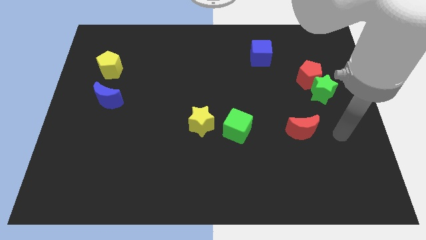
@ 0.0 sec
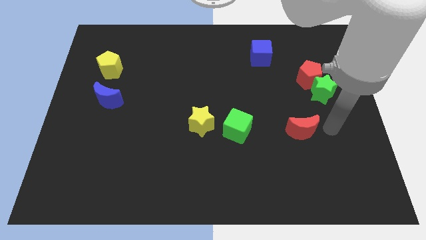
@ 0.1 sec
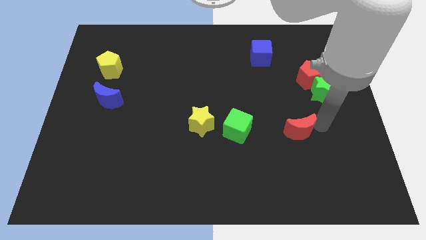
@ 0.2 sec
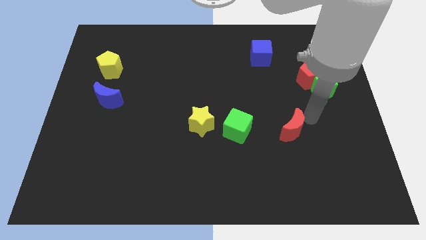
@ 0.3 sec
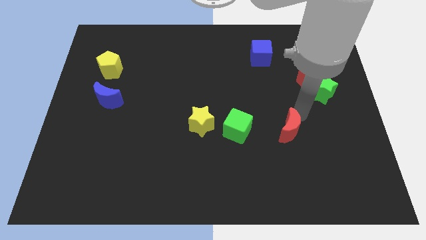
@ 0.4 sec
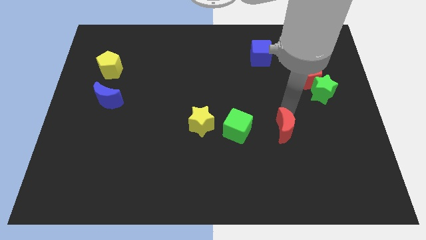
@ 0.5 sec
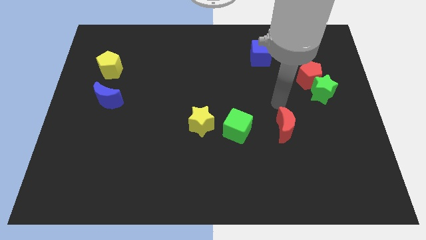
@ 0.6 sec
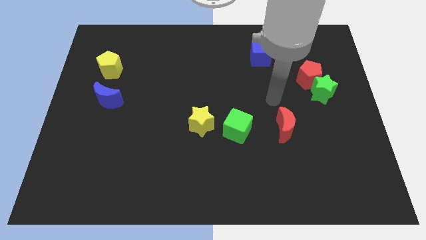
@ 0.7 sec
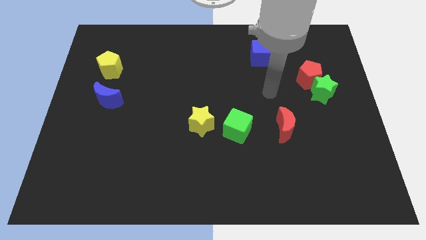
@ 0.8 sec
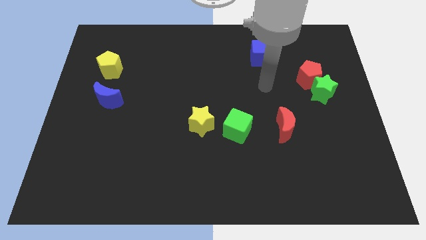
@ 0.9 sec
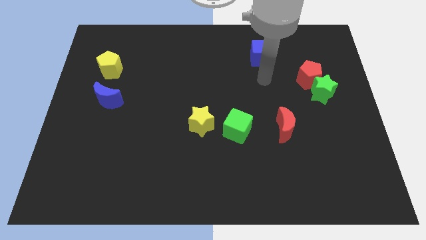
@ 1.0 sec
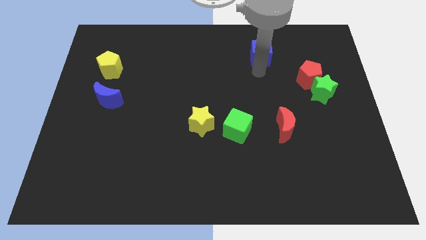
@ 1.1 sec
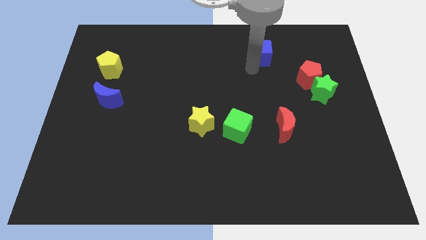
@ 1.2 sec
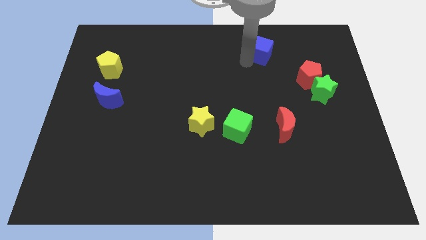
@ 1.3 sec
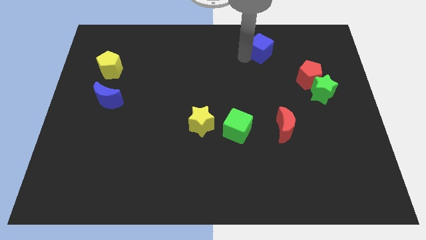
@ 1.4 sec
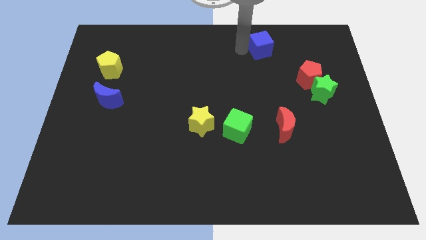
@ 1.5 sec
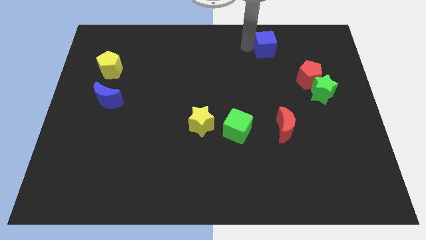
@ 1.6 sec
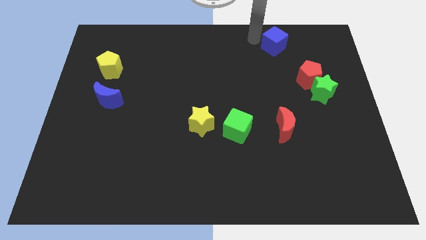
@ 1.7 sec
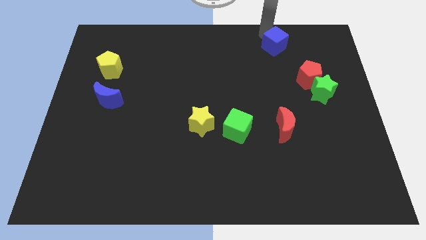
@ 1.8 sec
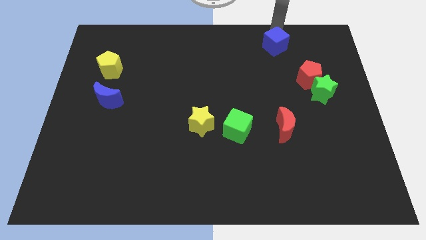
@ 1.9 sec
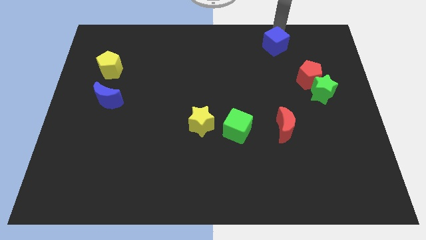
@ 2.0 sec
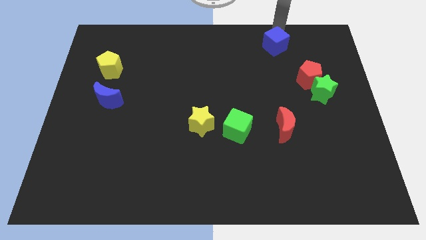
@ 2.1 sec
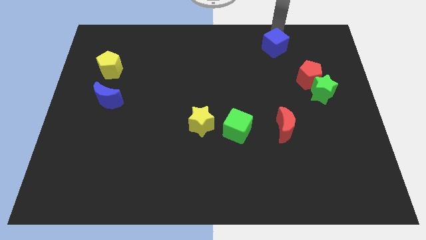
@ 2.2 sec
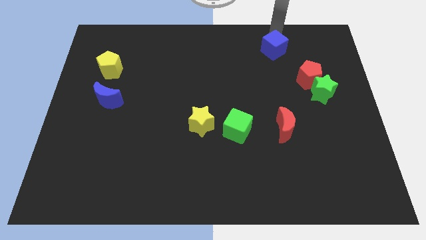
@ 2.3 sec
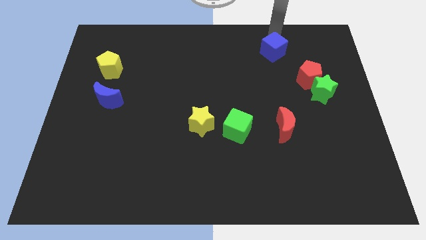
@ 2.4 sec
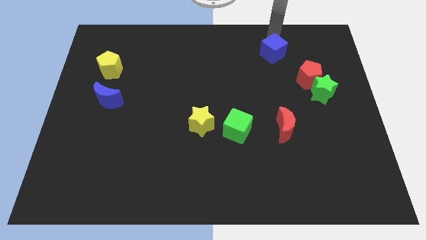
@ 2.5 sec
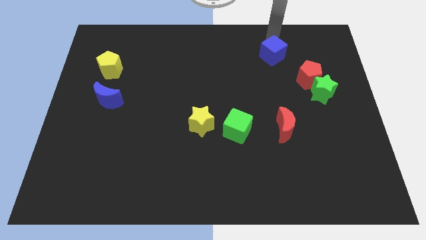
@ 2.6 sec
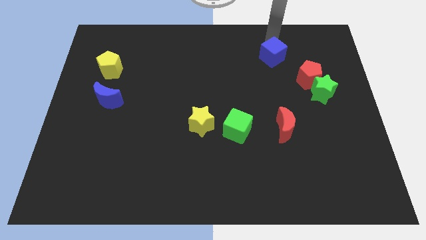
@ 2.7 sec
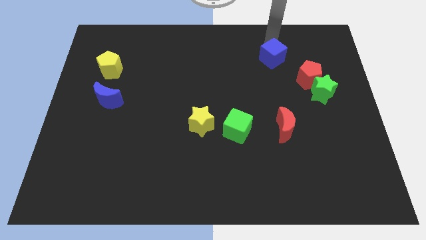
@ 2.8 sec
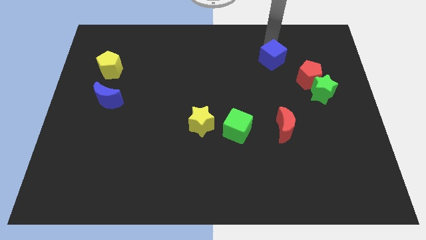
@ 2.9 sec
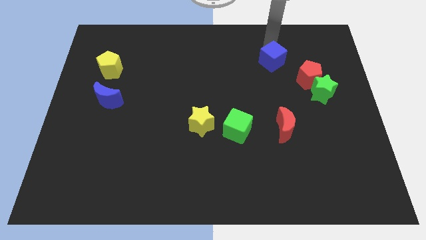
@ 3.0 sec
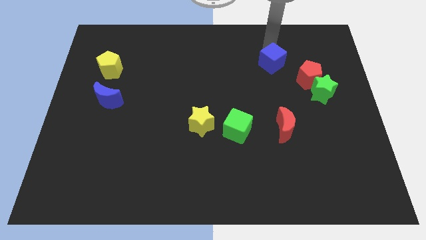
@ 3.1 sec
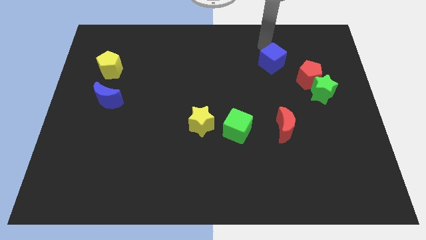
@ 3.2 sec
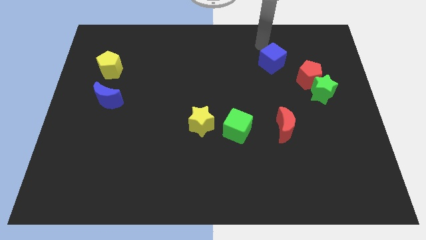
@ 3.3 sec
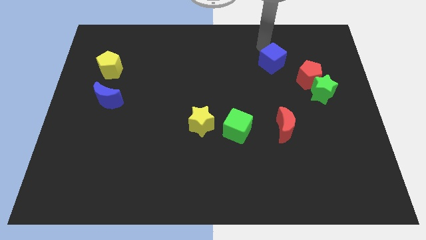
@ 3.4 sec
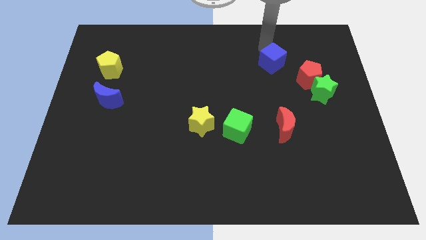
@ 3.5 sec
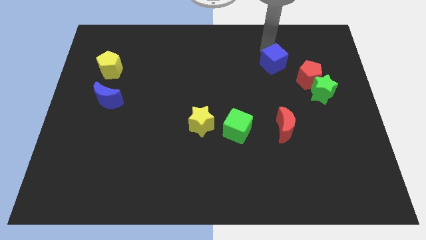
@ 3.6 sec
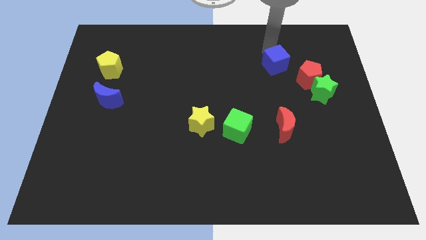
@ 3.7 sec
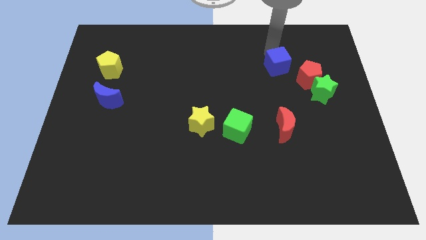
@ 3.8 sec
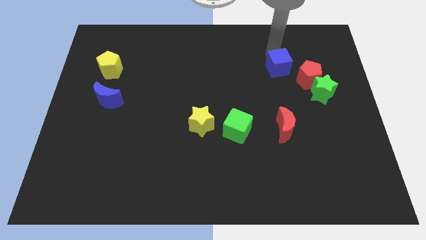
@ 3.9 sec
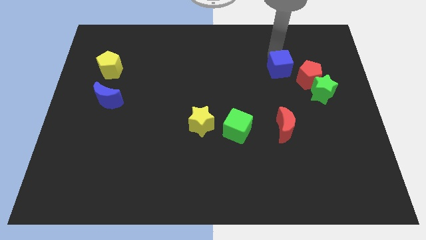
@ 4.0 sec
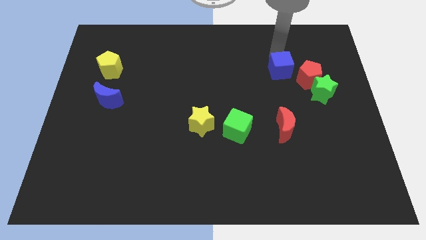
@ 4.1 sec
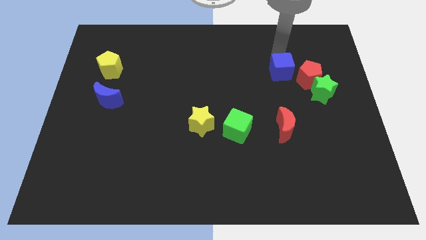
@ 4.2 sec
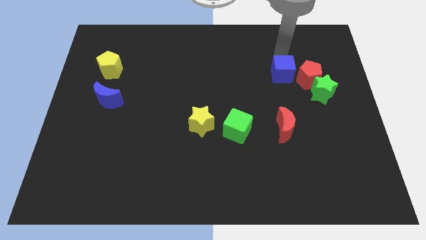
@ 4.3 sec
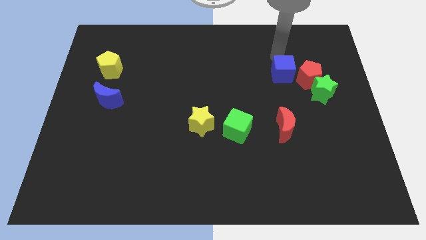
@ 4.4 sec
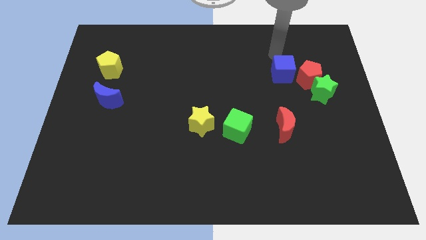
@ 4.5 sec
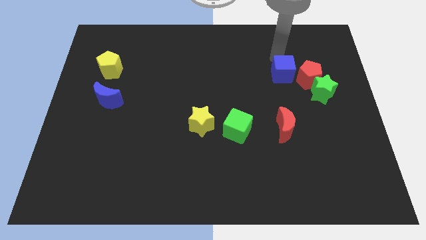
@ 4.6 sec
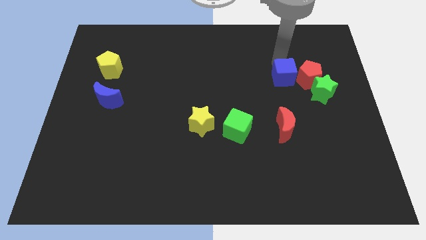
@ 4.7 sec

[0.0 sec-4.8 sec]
push the blue cube diagonally down and to the left of the red pentagon

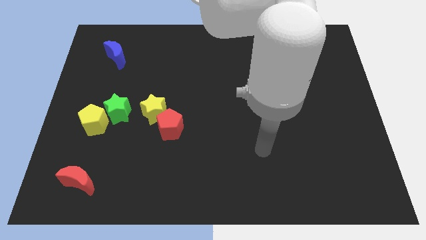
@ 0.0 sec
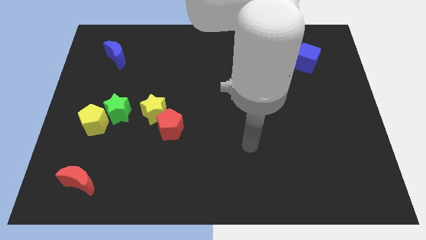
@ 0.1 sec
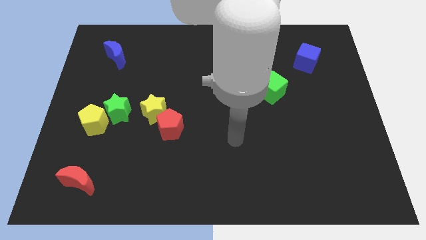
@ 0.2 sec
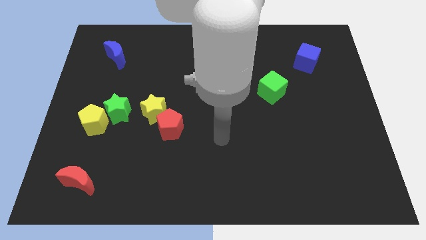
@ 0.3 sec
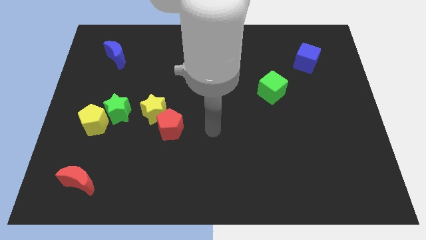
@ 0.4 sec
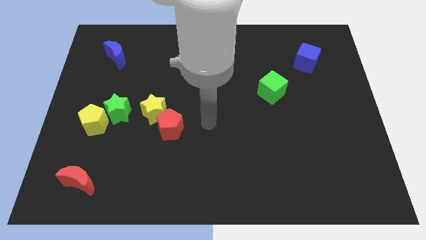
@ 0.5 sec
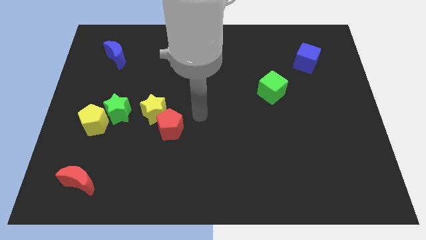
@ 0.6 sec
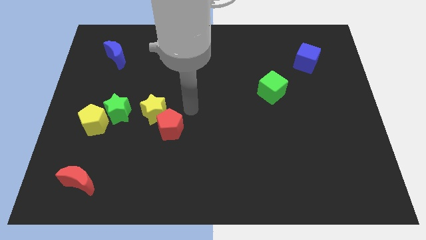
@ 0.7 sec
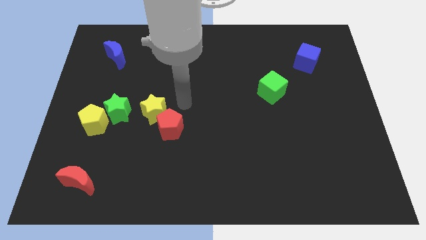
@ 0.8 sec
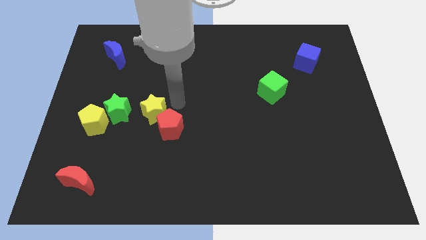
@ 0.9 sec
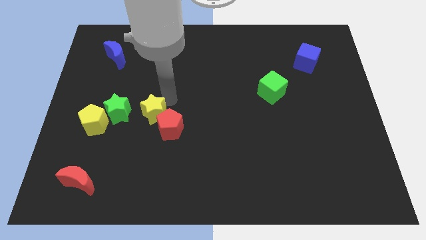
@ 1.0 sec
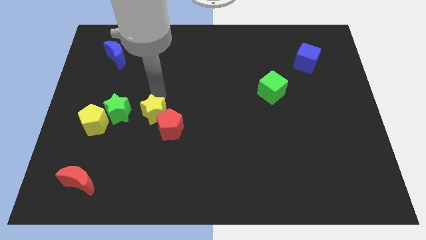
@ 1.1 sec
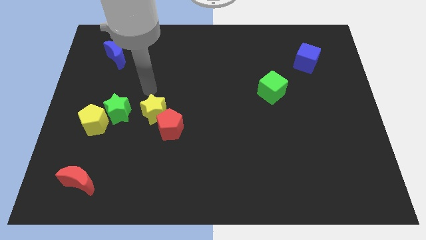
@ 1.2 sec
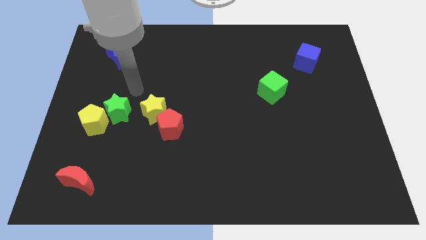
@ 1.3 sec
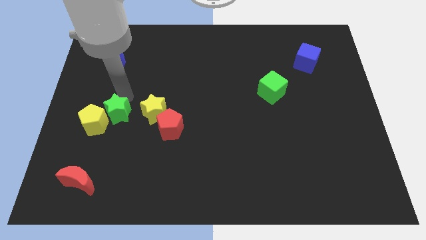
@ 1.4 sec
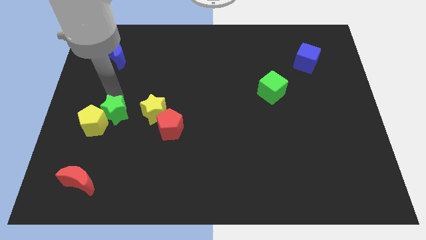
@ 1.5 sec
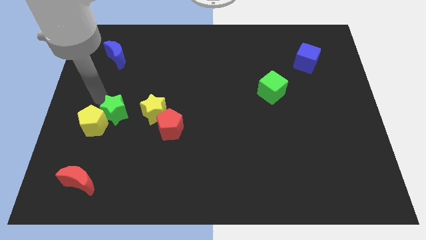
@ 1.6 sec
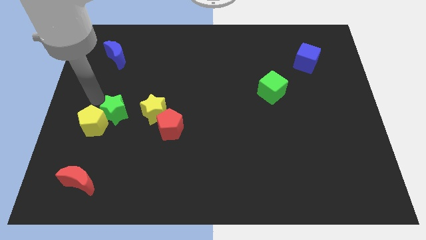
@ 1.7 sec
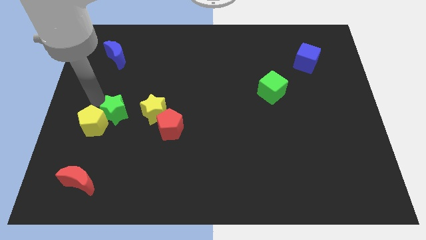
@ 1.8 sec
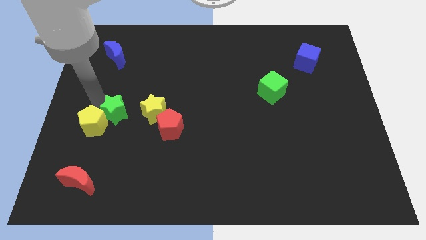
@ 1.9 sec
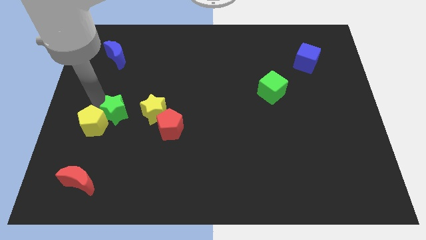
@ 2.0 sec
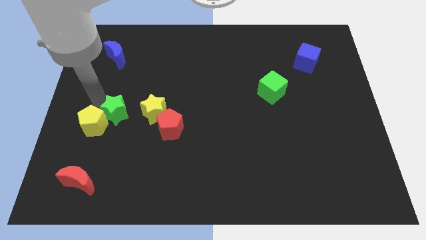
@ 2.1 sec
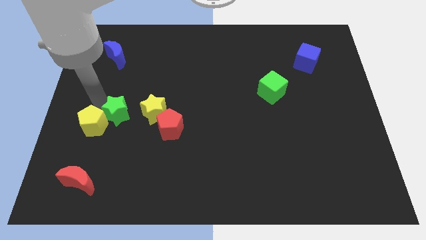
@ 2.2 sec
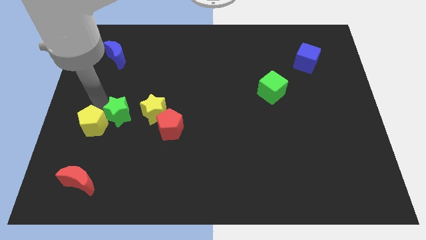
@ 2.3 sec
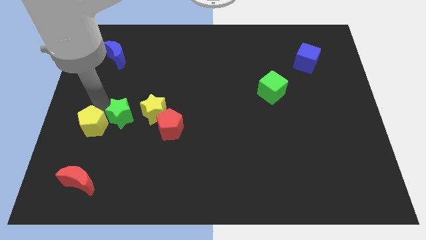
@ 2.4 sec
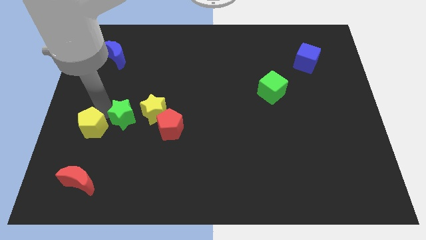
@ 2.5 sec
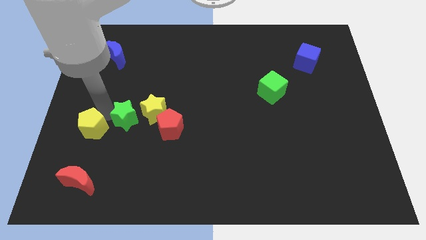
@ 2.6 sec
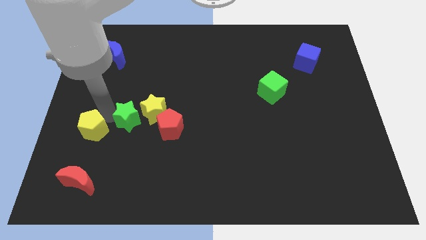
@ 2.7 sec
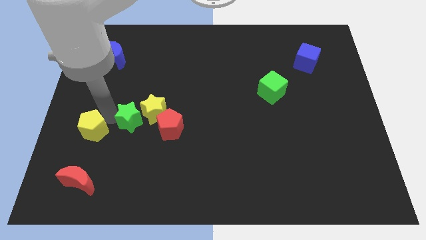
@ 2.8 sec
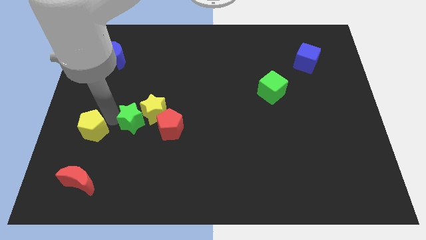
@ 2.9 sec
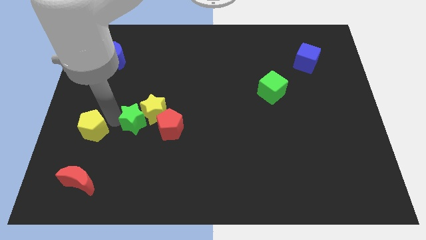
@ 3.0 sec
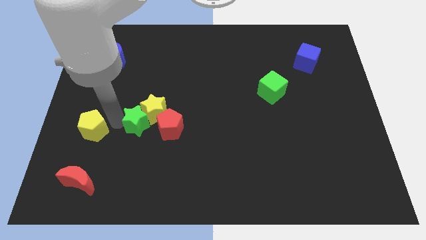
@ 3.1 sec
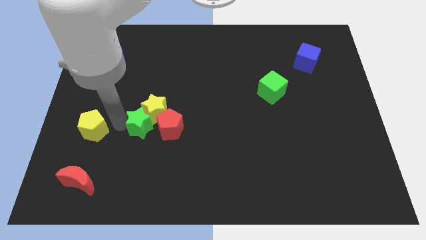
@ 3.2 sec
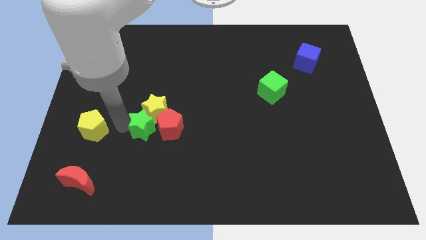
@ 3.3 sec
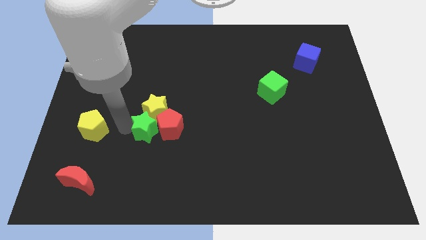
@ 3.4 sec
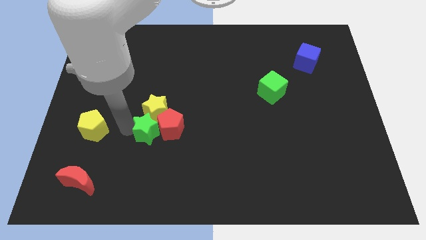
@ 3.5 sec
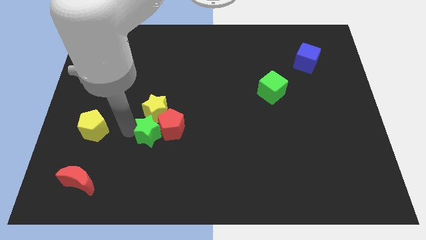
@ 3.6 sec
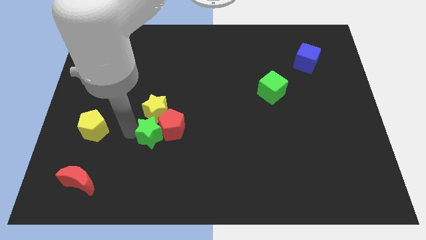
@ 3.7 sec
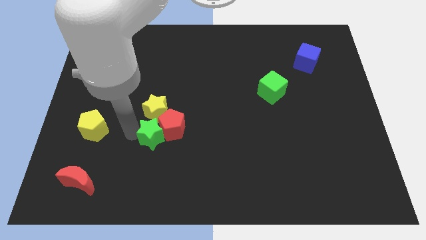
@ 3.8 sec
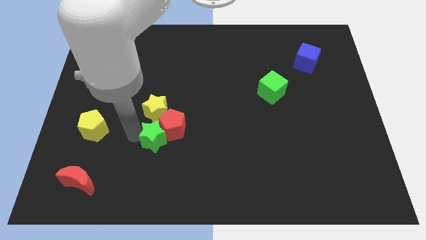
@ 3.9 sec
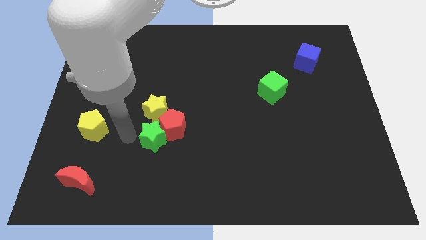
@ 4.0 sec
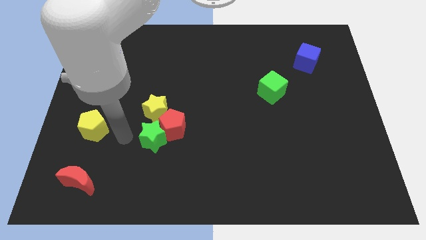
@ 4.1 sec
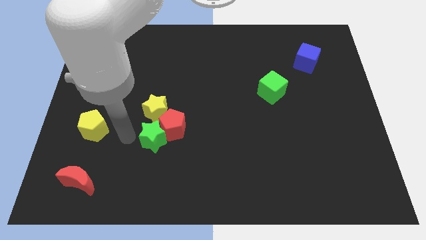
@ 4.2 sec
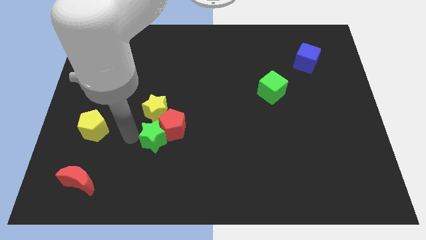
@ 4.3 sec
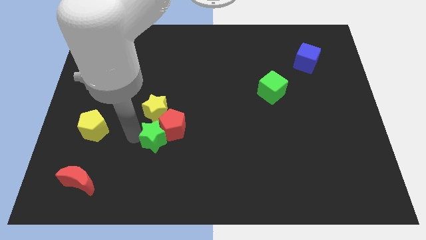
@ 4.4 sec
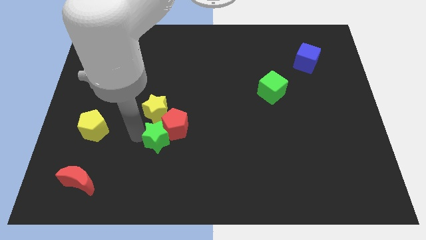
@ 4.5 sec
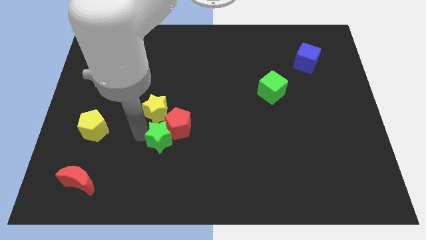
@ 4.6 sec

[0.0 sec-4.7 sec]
move the green star diagonally down and to the right of the yellow star
